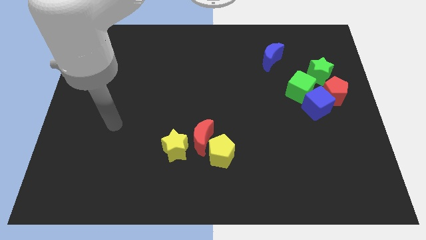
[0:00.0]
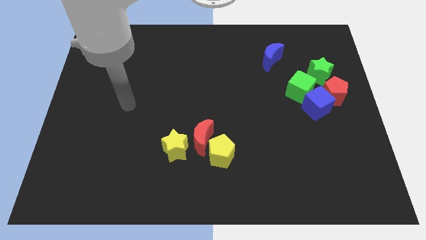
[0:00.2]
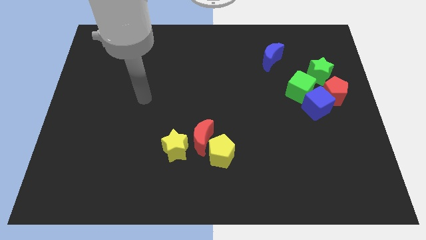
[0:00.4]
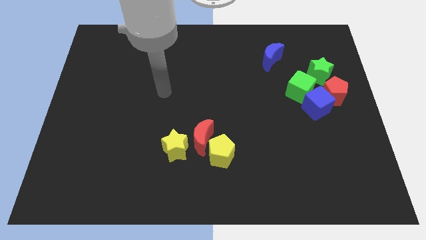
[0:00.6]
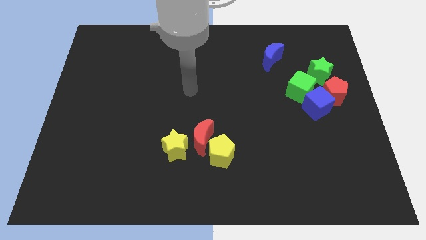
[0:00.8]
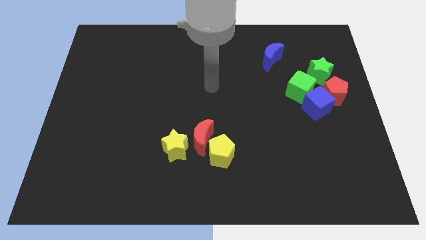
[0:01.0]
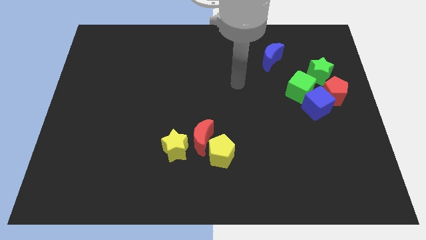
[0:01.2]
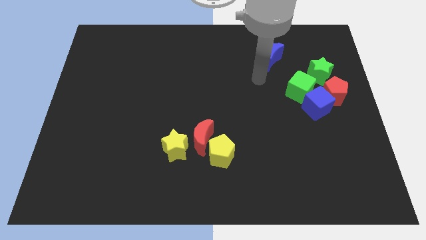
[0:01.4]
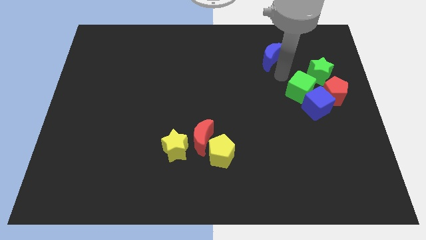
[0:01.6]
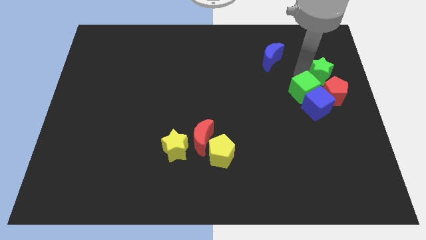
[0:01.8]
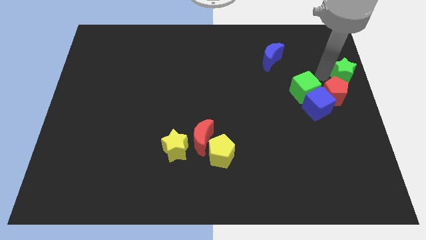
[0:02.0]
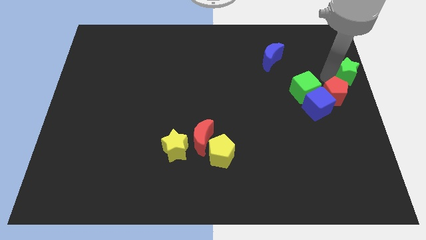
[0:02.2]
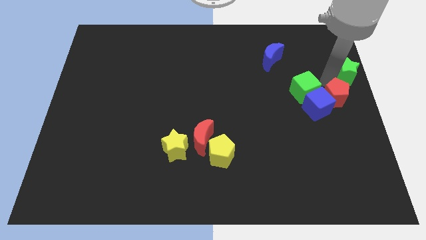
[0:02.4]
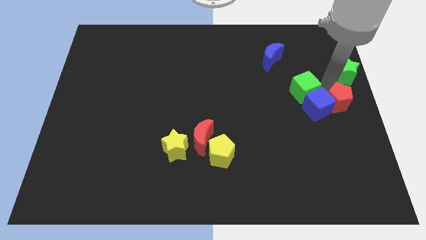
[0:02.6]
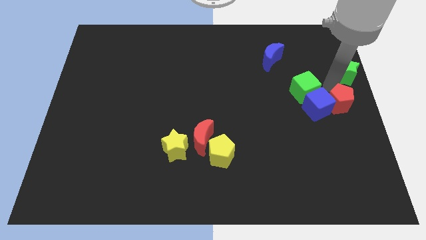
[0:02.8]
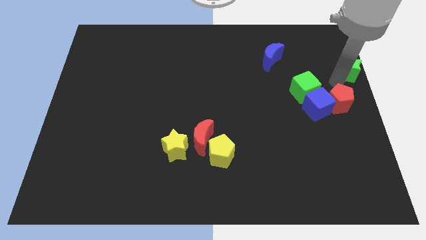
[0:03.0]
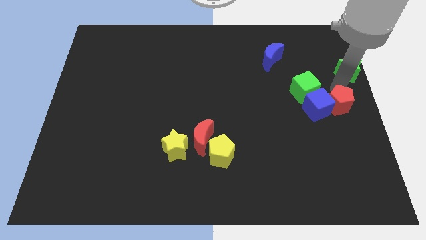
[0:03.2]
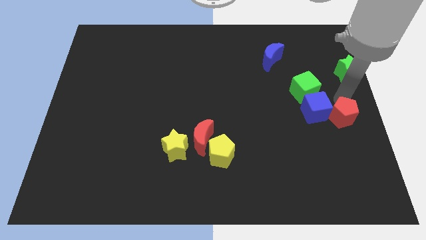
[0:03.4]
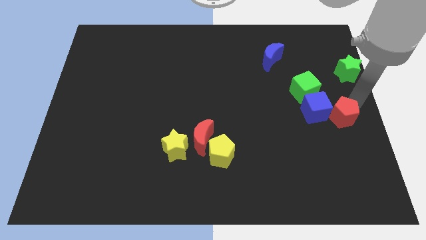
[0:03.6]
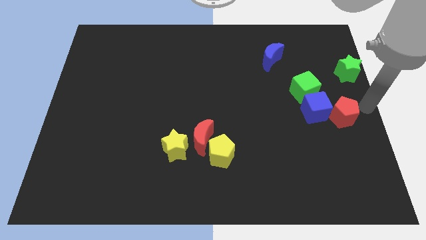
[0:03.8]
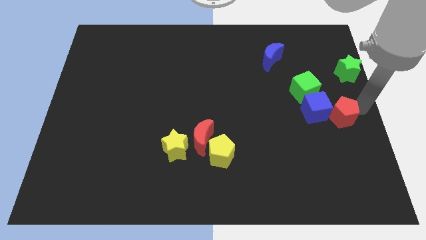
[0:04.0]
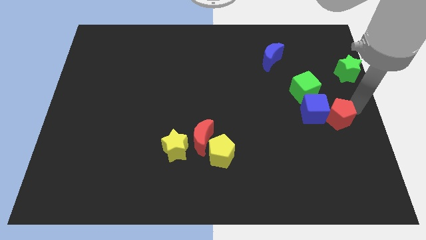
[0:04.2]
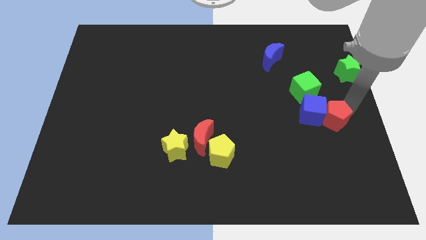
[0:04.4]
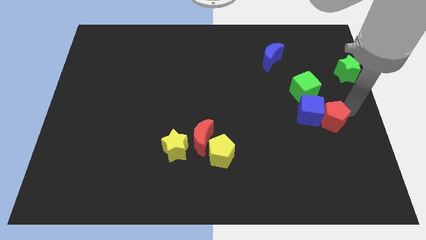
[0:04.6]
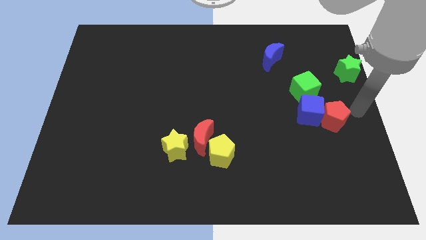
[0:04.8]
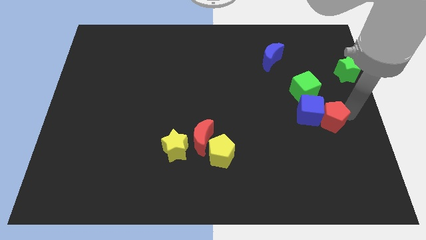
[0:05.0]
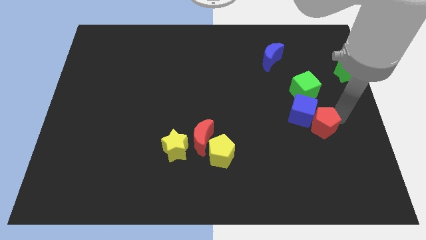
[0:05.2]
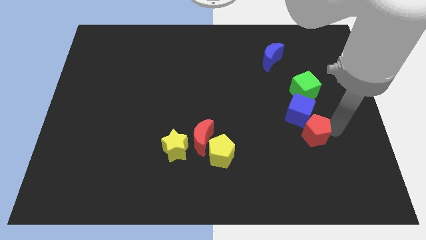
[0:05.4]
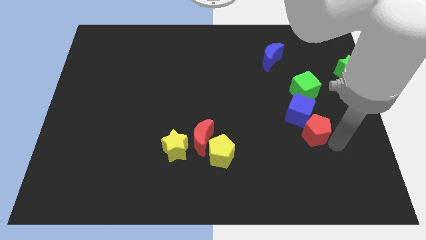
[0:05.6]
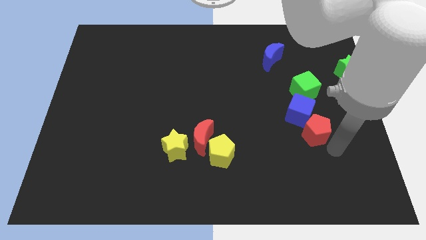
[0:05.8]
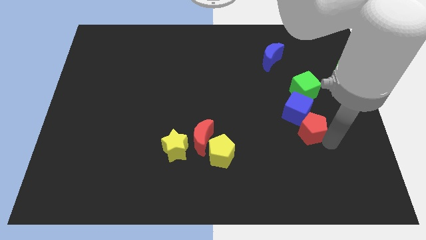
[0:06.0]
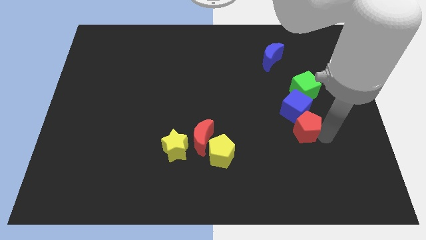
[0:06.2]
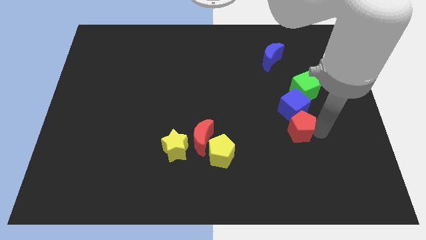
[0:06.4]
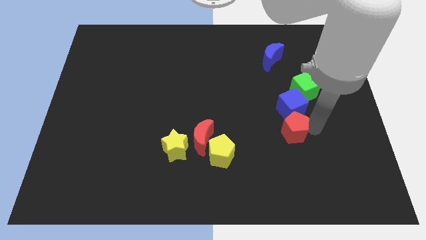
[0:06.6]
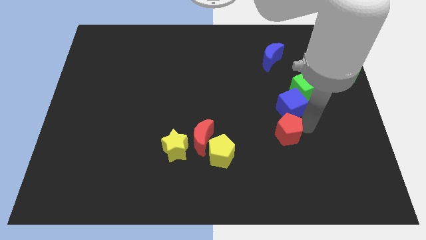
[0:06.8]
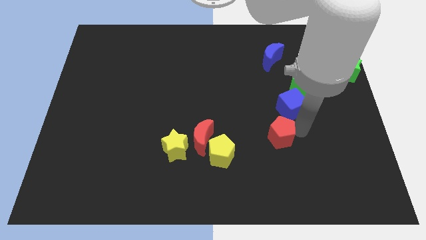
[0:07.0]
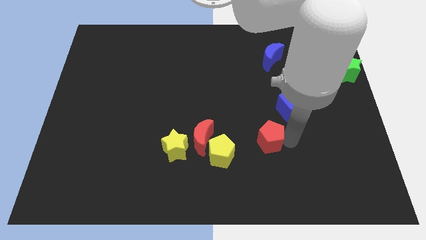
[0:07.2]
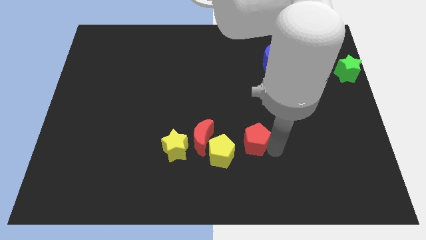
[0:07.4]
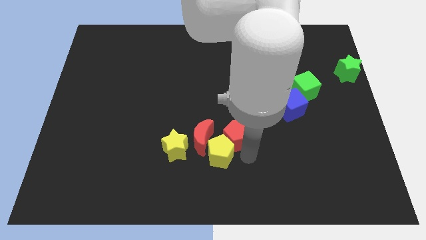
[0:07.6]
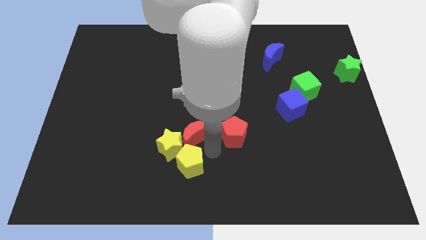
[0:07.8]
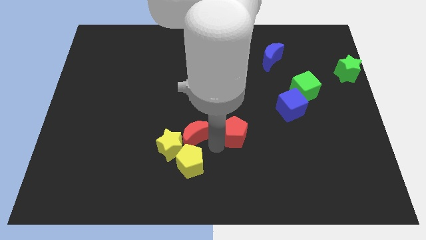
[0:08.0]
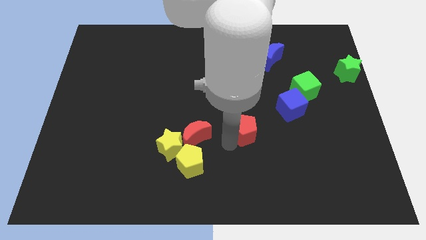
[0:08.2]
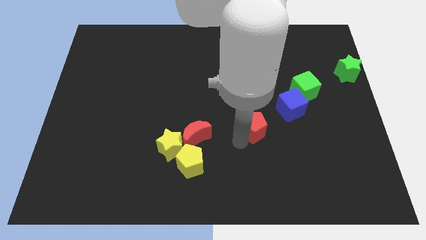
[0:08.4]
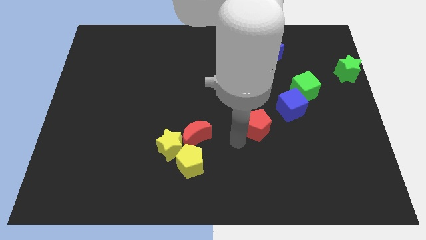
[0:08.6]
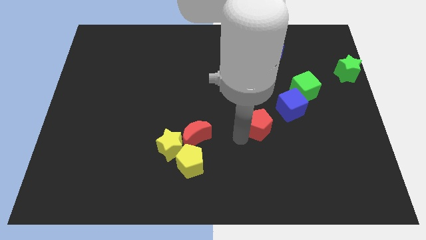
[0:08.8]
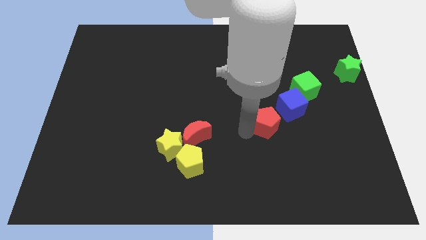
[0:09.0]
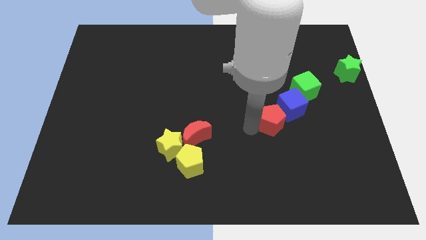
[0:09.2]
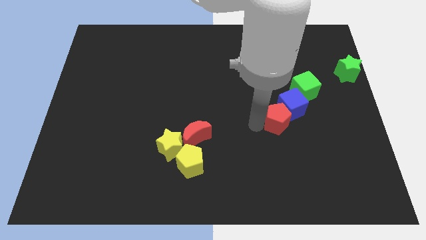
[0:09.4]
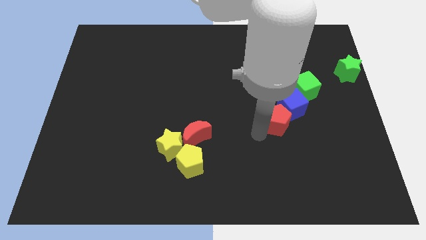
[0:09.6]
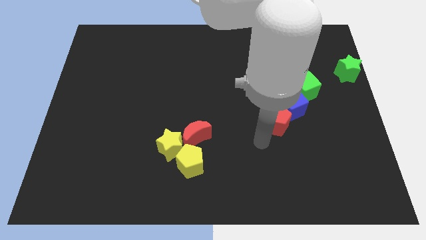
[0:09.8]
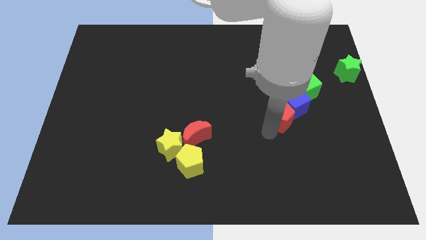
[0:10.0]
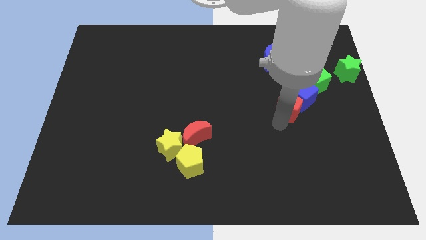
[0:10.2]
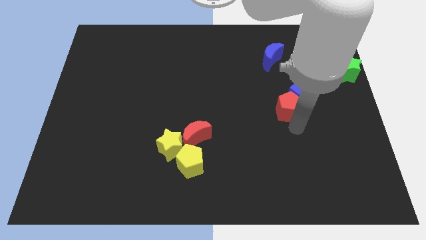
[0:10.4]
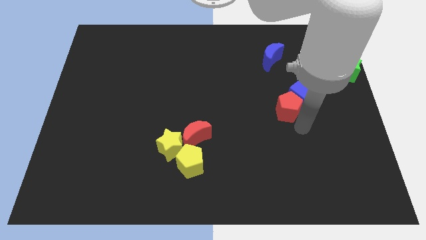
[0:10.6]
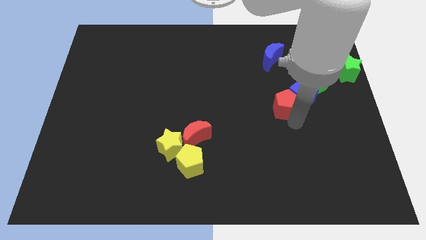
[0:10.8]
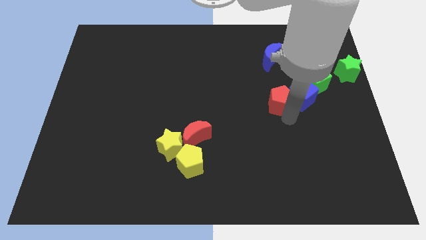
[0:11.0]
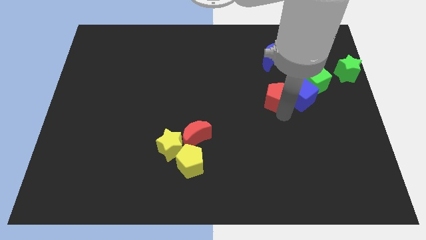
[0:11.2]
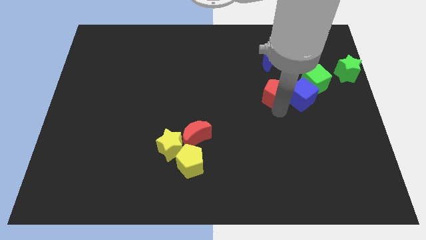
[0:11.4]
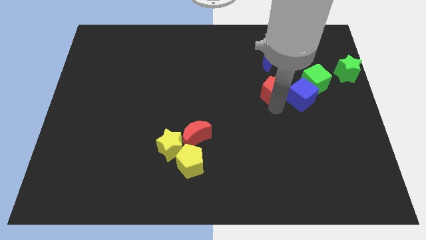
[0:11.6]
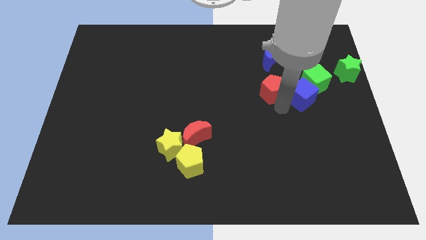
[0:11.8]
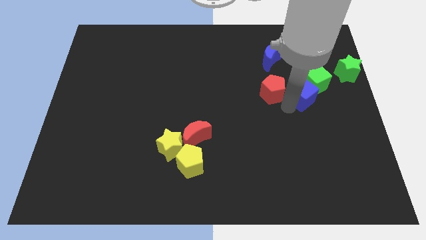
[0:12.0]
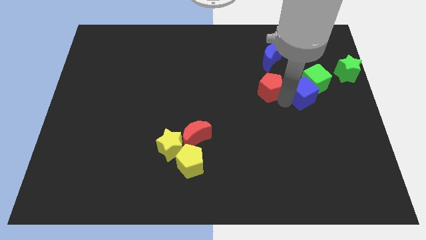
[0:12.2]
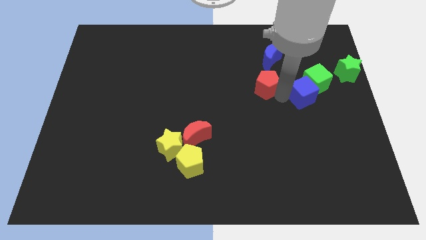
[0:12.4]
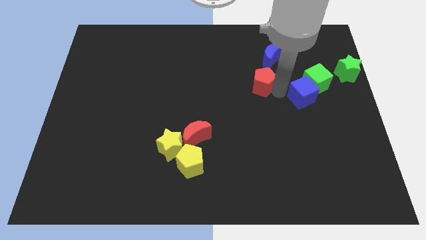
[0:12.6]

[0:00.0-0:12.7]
slide the red pentagon diagonally down and to the left of the blue moon
